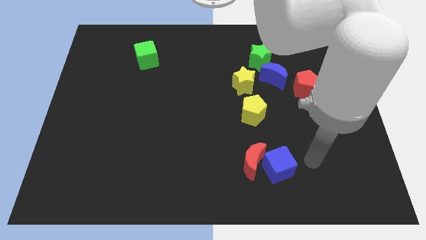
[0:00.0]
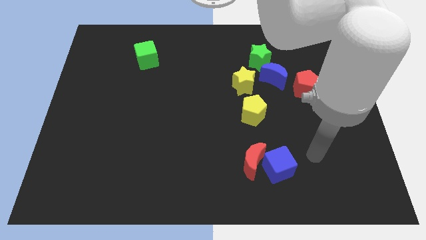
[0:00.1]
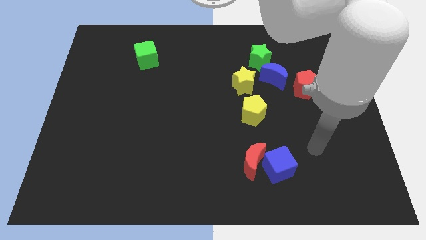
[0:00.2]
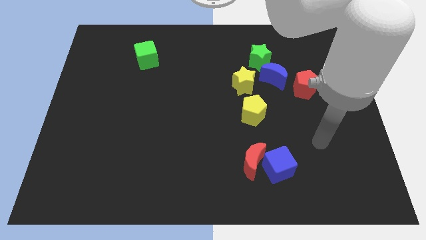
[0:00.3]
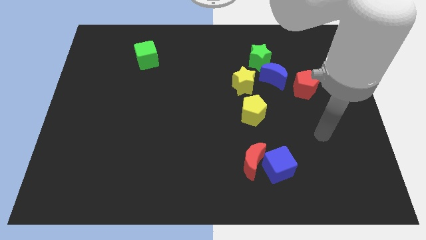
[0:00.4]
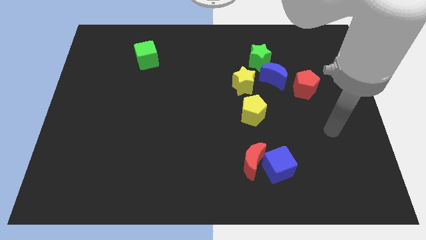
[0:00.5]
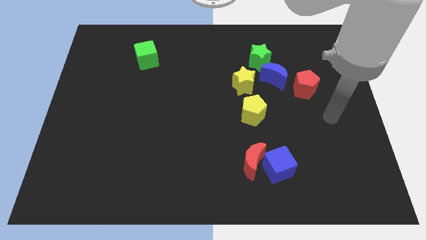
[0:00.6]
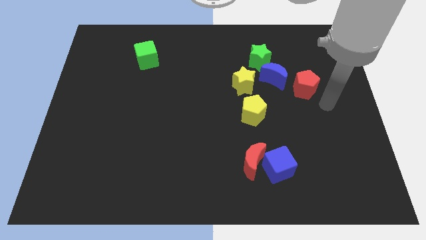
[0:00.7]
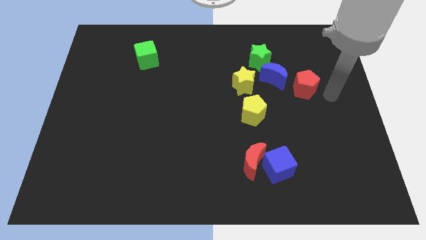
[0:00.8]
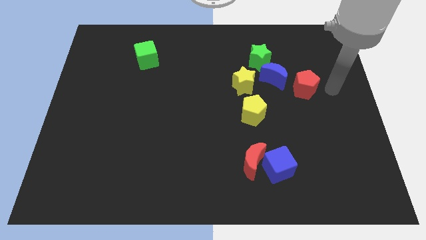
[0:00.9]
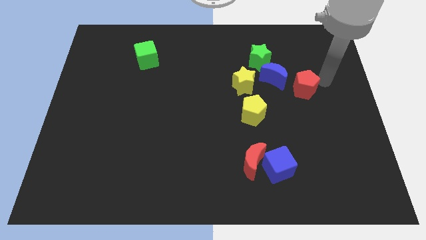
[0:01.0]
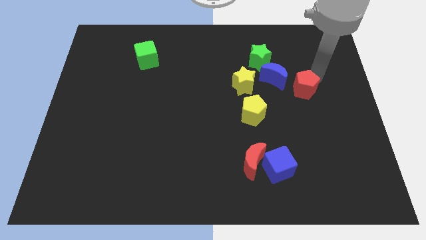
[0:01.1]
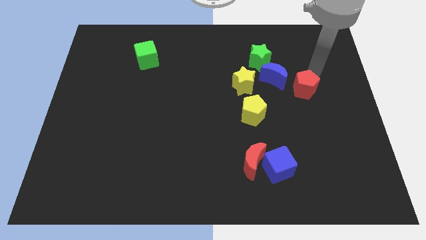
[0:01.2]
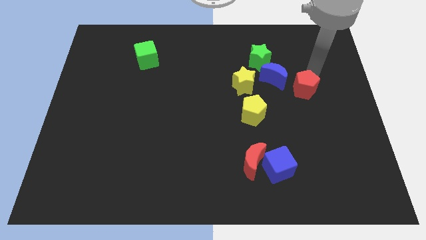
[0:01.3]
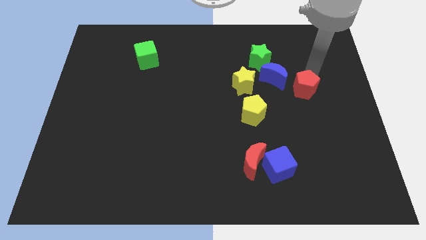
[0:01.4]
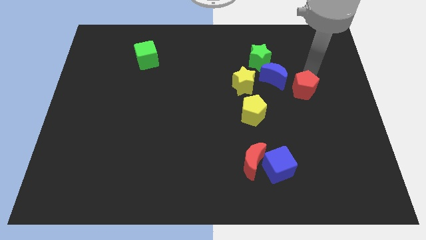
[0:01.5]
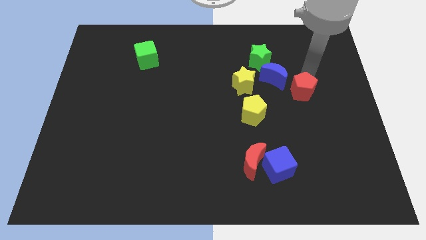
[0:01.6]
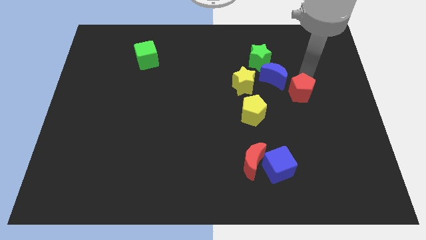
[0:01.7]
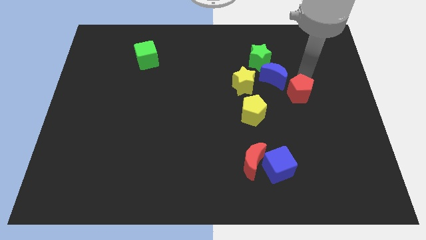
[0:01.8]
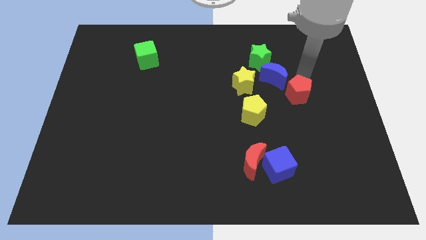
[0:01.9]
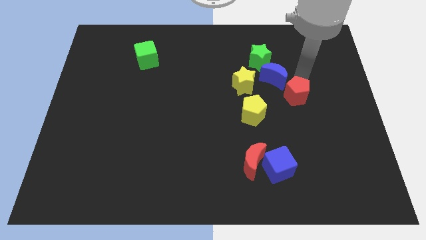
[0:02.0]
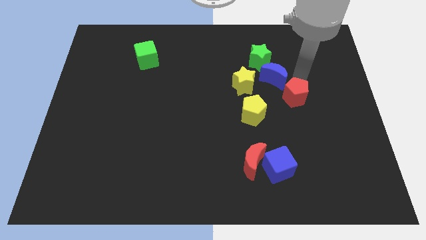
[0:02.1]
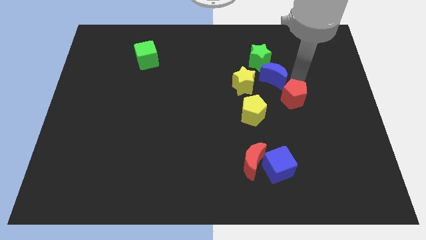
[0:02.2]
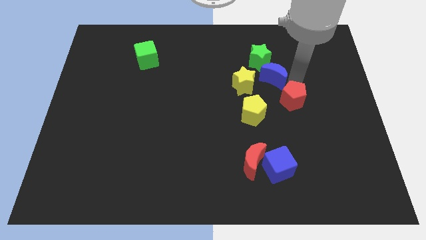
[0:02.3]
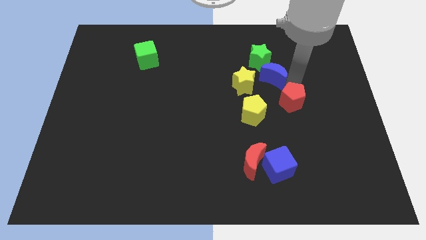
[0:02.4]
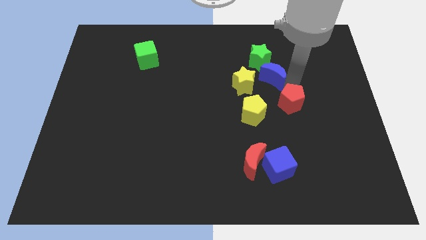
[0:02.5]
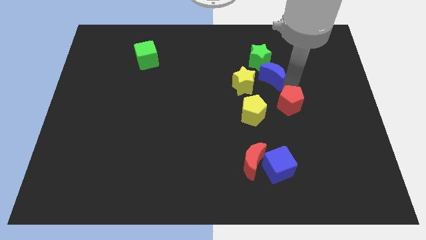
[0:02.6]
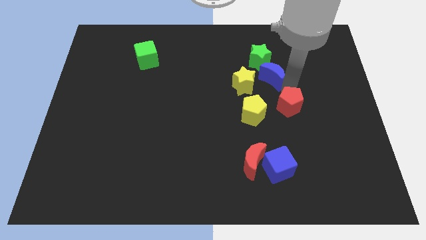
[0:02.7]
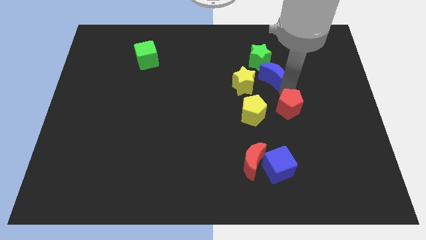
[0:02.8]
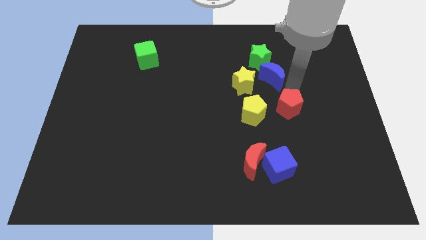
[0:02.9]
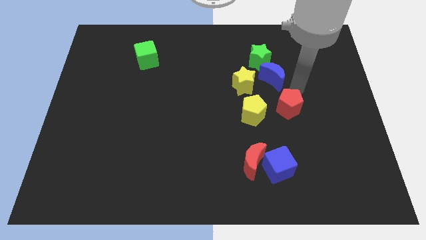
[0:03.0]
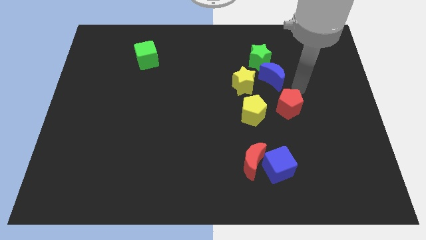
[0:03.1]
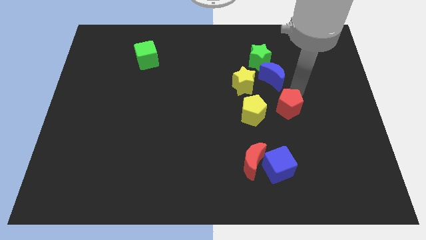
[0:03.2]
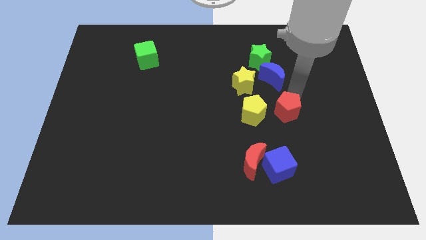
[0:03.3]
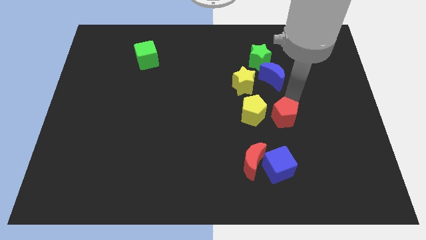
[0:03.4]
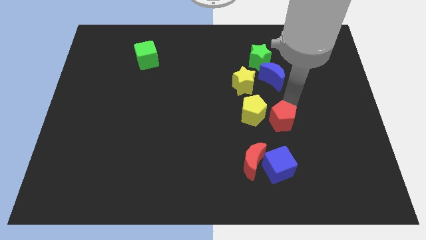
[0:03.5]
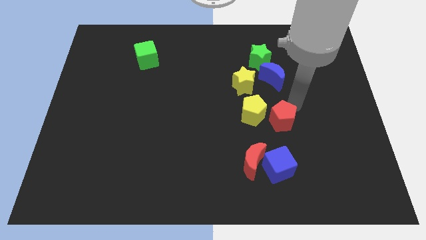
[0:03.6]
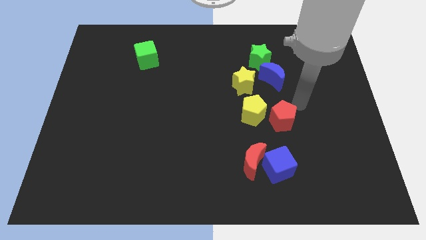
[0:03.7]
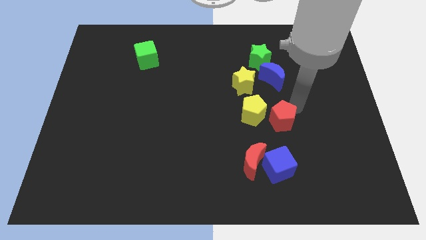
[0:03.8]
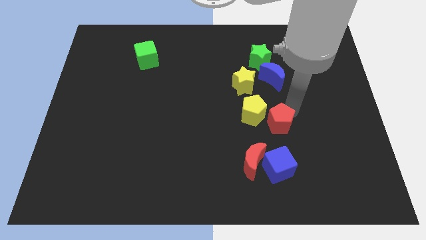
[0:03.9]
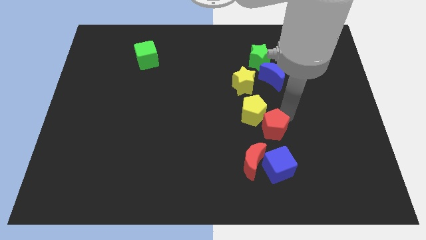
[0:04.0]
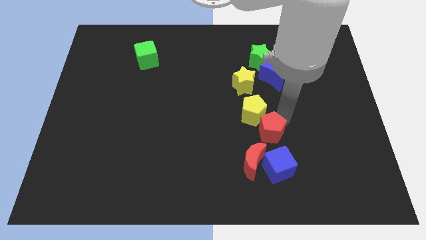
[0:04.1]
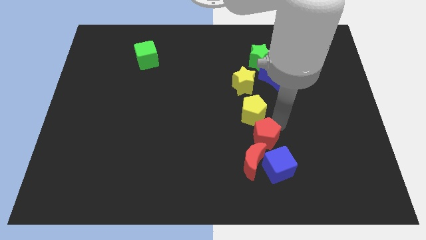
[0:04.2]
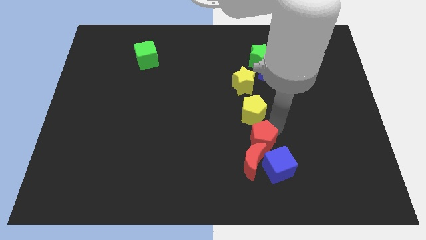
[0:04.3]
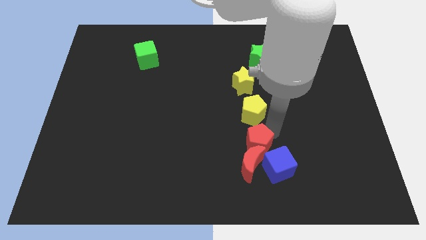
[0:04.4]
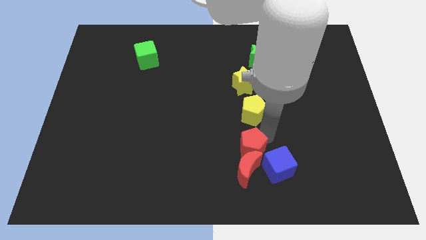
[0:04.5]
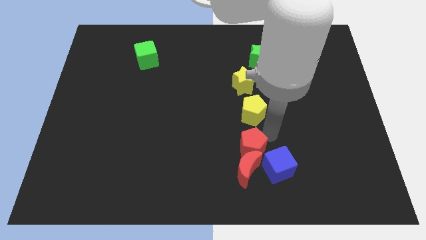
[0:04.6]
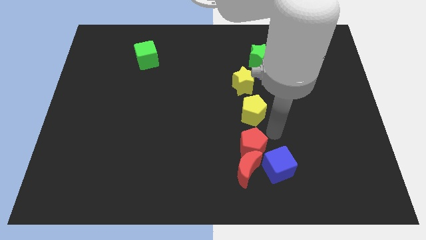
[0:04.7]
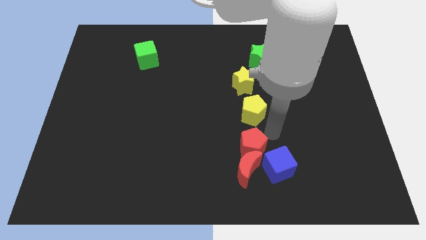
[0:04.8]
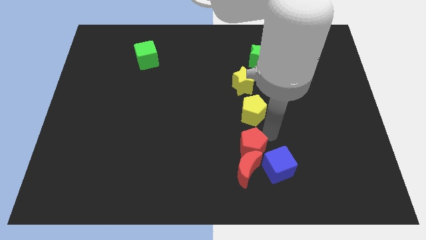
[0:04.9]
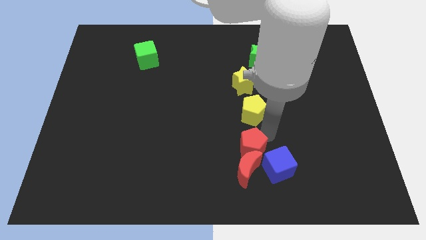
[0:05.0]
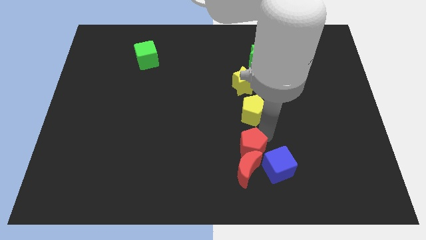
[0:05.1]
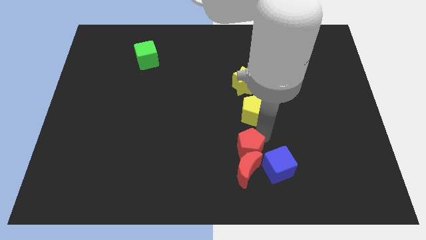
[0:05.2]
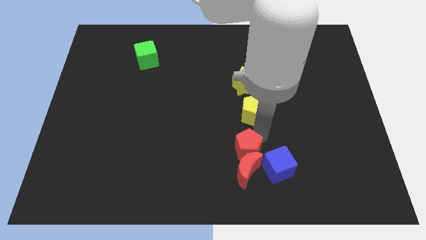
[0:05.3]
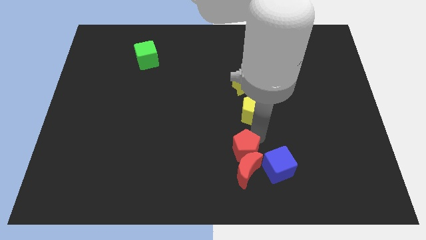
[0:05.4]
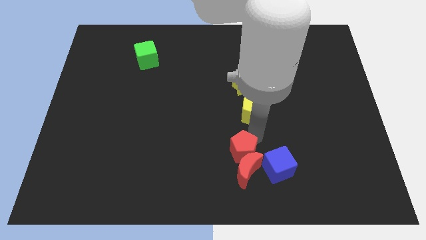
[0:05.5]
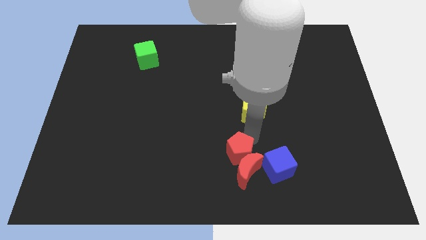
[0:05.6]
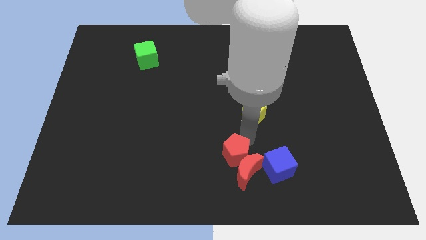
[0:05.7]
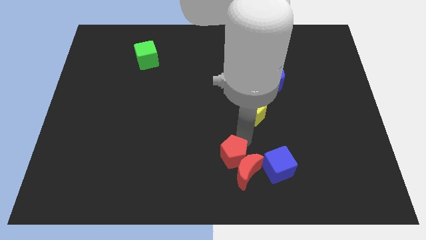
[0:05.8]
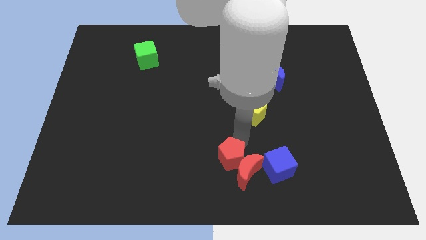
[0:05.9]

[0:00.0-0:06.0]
push the red pentagon to the bottom side

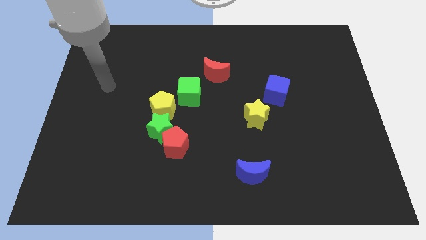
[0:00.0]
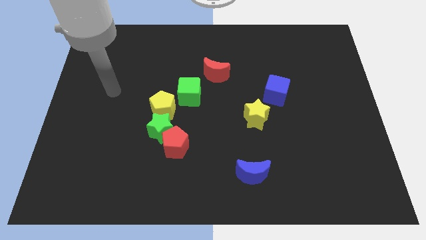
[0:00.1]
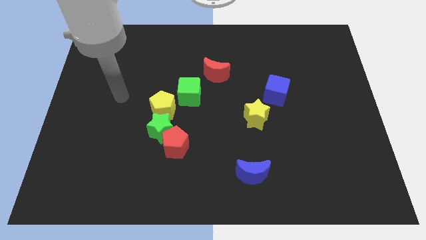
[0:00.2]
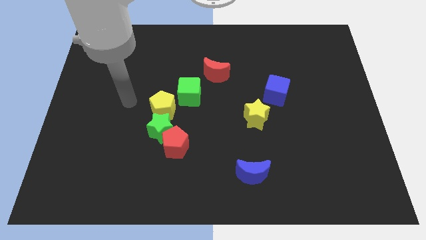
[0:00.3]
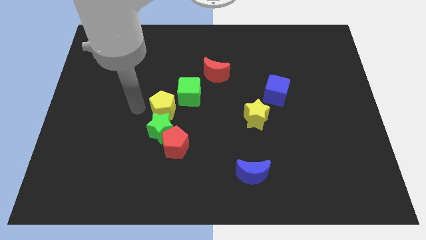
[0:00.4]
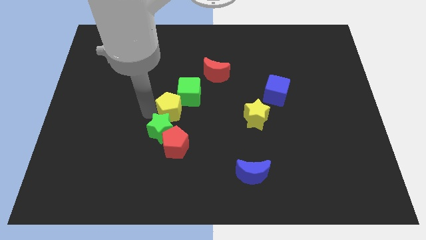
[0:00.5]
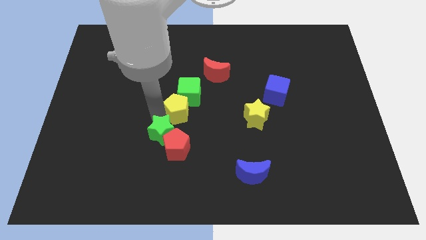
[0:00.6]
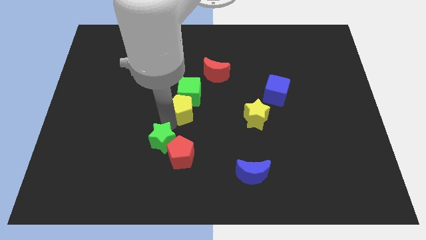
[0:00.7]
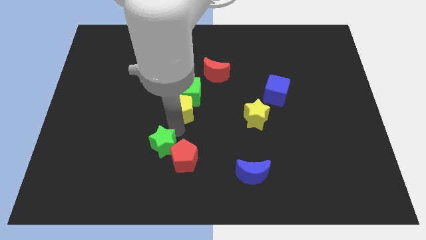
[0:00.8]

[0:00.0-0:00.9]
move the red pentagon to the bottom
